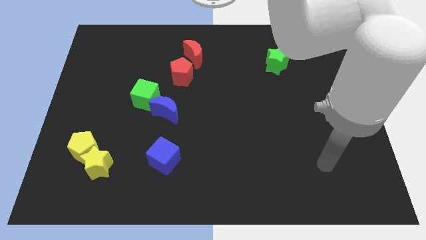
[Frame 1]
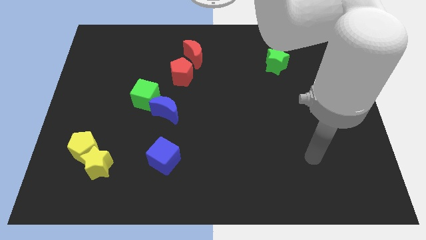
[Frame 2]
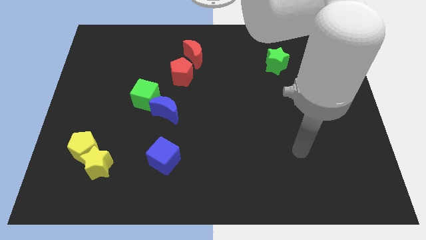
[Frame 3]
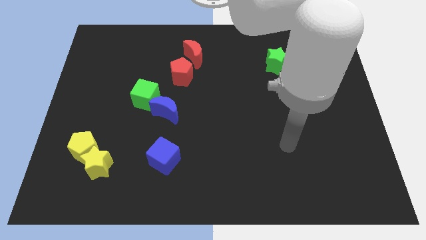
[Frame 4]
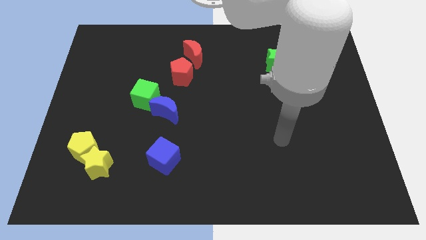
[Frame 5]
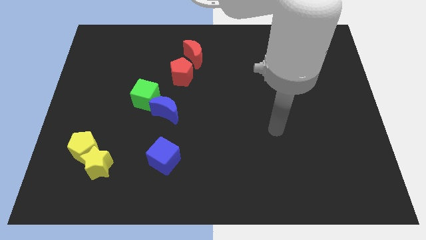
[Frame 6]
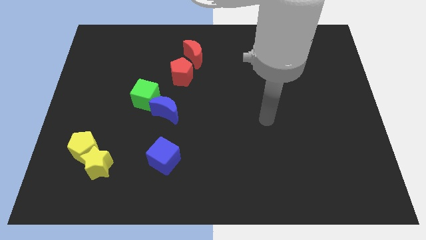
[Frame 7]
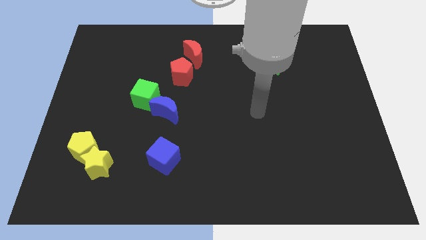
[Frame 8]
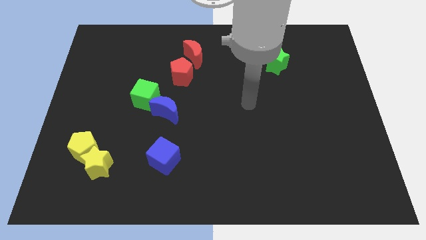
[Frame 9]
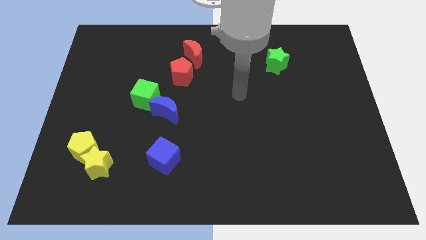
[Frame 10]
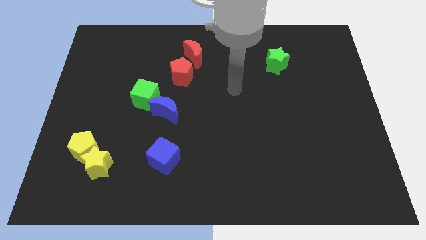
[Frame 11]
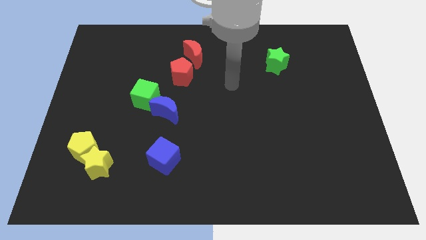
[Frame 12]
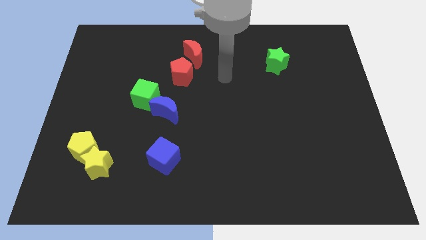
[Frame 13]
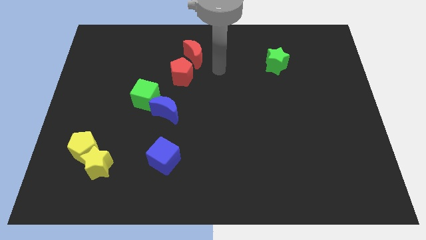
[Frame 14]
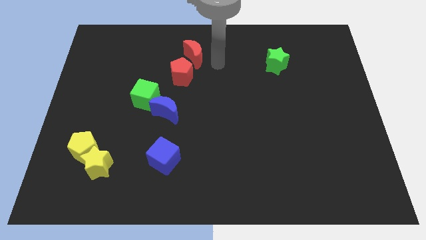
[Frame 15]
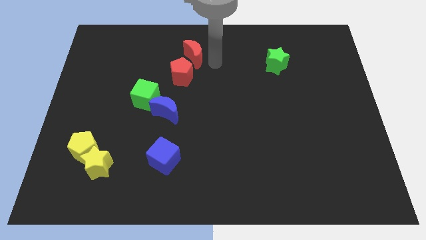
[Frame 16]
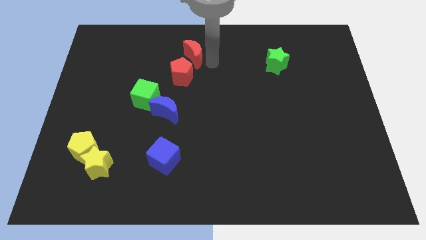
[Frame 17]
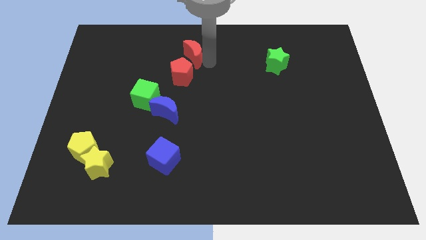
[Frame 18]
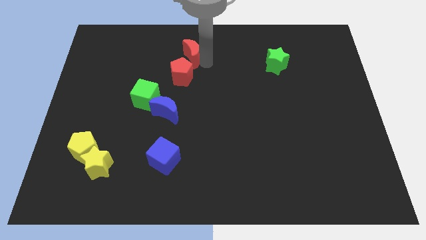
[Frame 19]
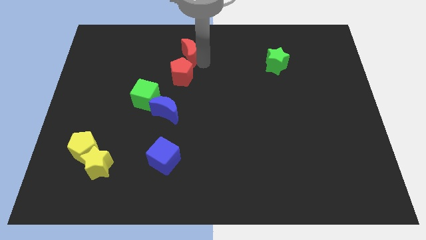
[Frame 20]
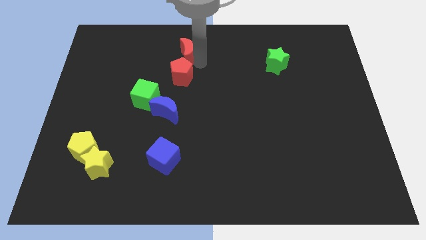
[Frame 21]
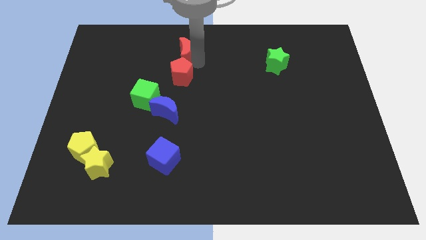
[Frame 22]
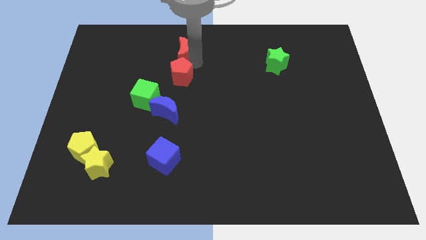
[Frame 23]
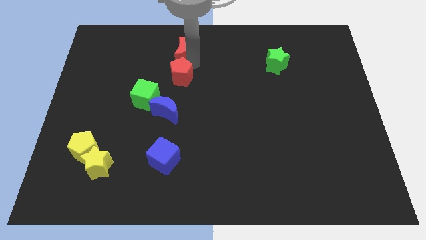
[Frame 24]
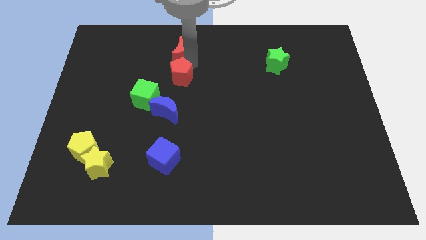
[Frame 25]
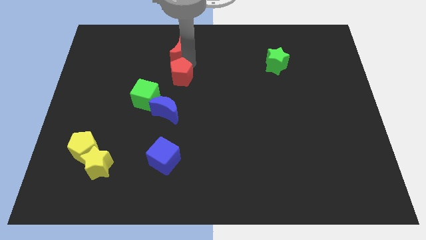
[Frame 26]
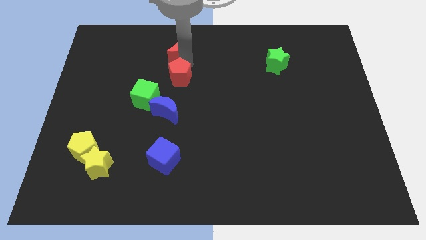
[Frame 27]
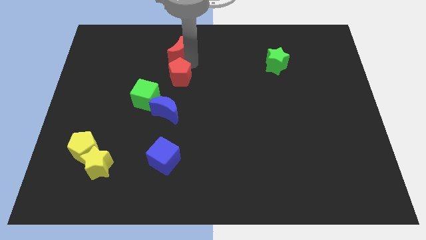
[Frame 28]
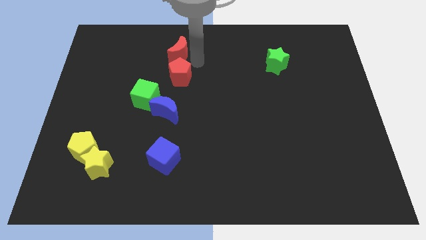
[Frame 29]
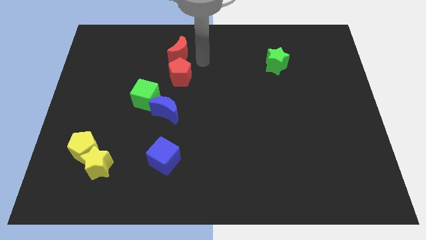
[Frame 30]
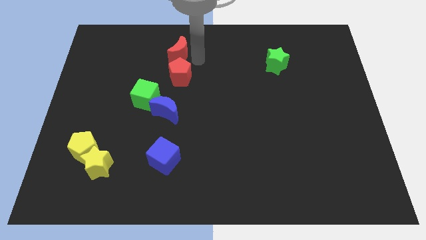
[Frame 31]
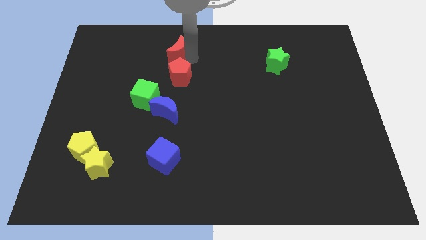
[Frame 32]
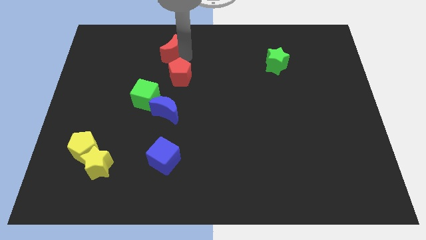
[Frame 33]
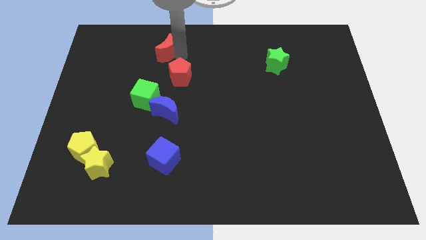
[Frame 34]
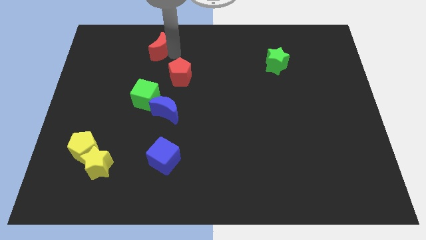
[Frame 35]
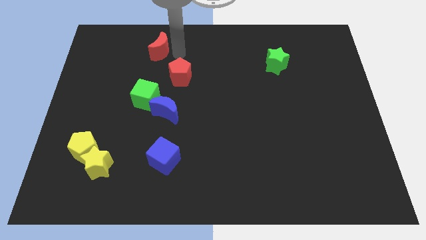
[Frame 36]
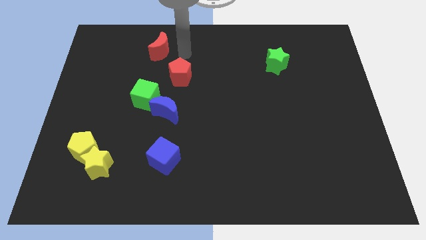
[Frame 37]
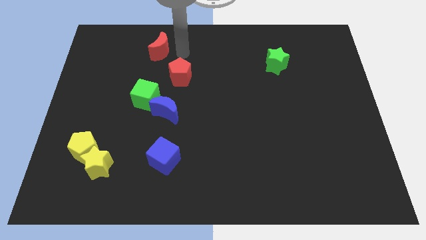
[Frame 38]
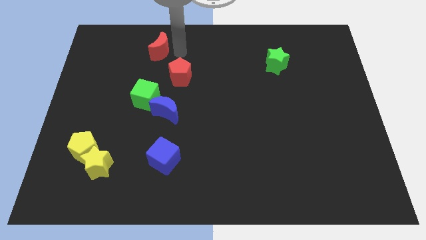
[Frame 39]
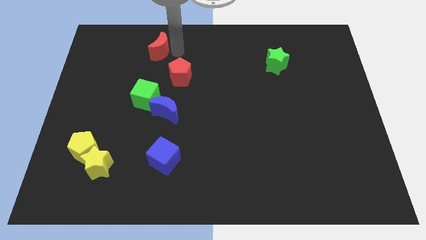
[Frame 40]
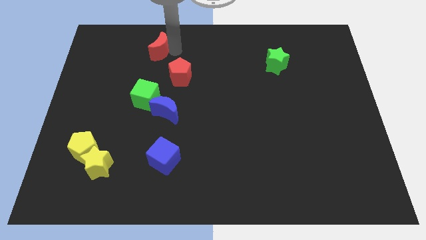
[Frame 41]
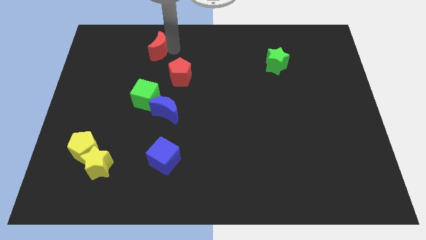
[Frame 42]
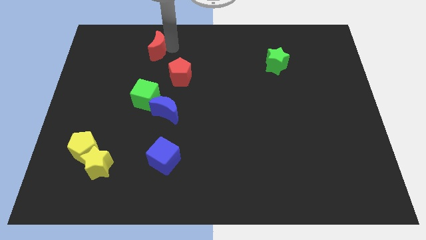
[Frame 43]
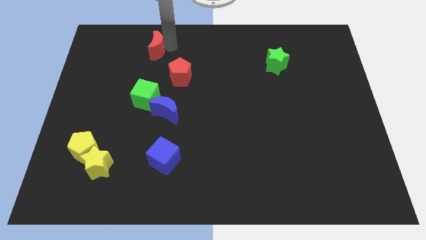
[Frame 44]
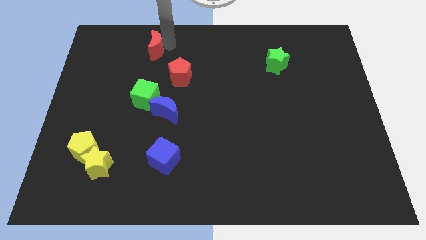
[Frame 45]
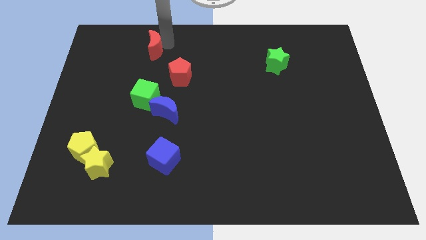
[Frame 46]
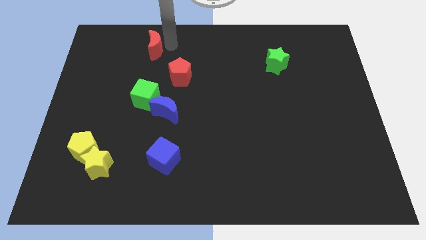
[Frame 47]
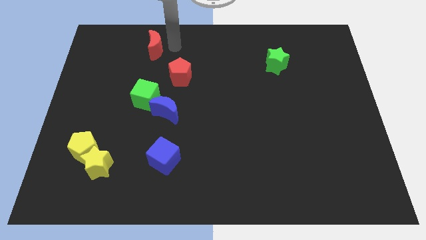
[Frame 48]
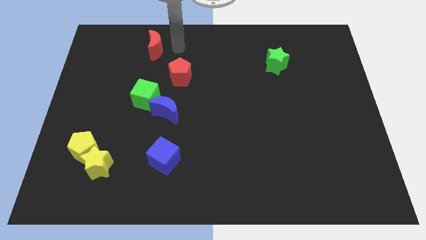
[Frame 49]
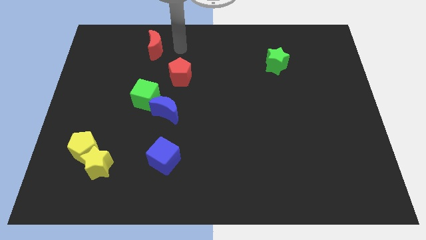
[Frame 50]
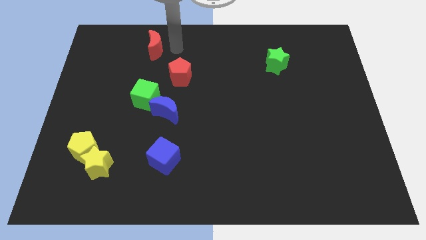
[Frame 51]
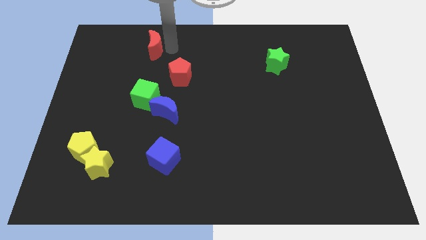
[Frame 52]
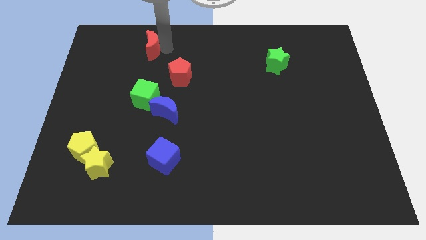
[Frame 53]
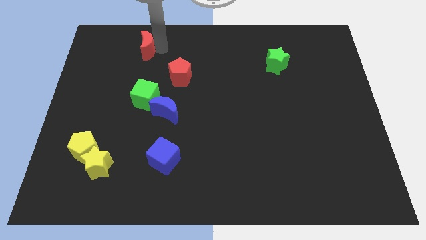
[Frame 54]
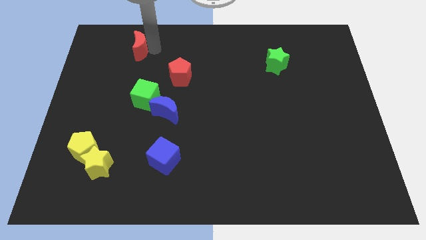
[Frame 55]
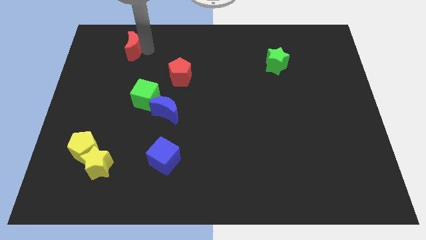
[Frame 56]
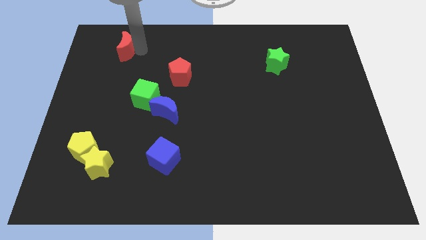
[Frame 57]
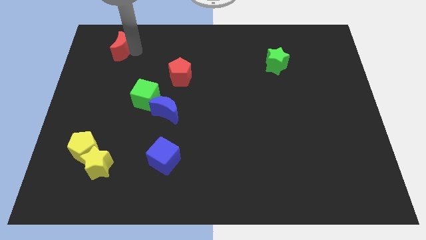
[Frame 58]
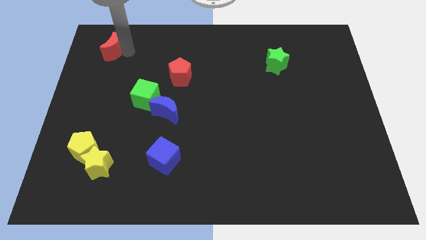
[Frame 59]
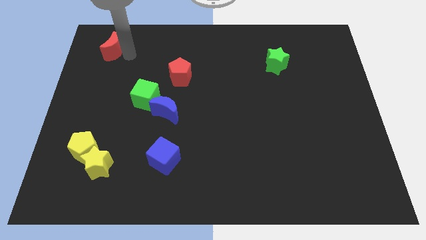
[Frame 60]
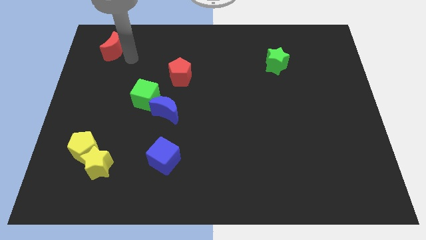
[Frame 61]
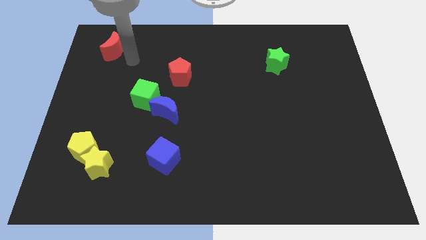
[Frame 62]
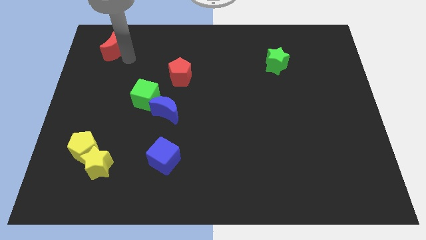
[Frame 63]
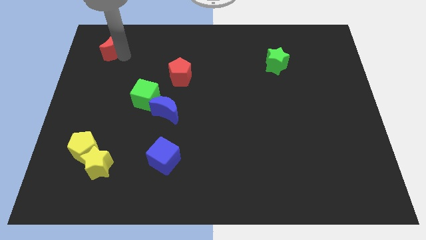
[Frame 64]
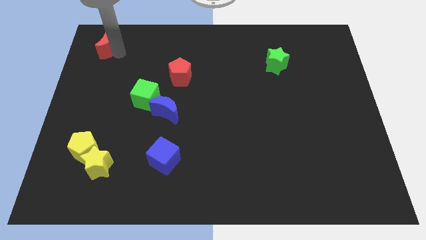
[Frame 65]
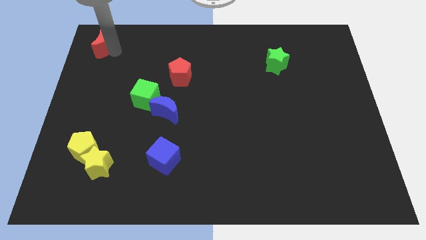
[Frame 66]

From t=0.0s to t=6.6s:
put the red moon to the upper left corner
